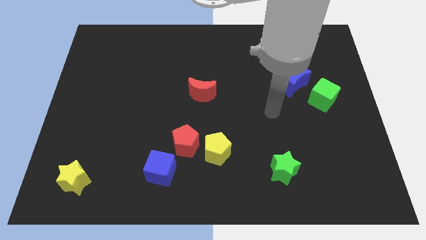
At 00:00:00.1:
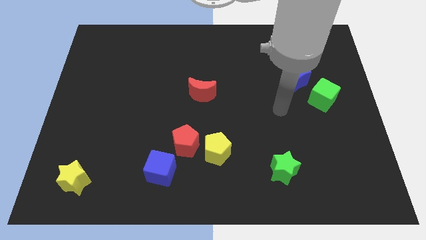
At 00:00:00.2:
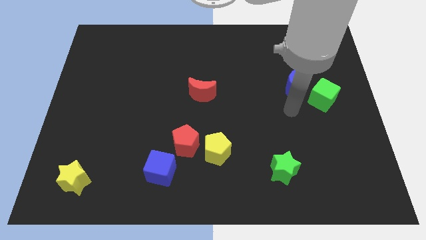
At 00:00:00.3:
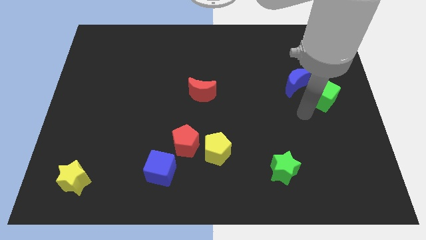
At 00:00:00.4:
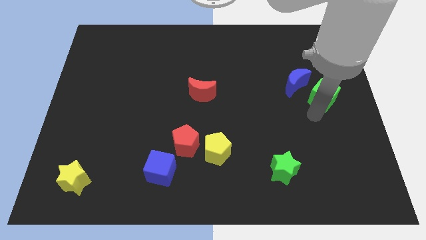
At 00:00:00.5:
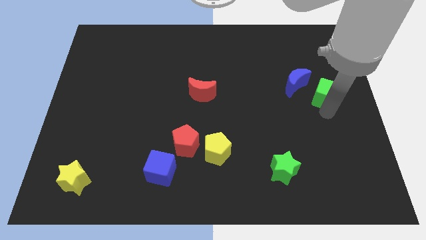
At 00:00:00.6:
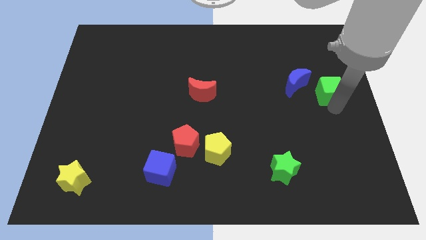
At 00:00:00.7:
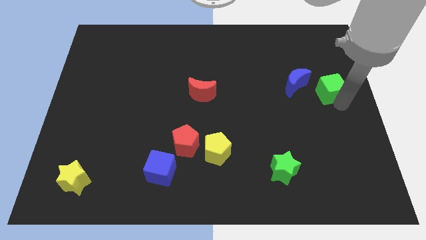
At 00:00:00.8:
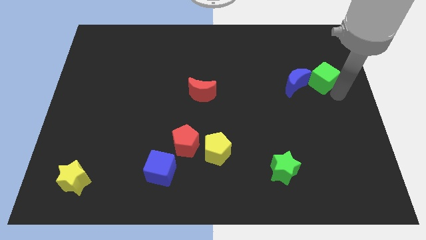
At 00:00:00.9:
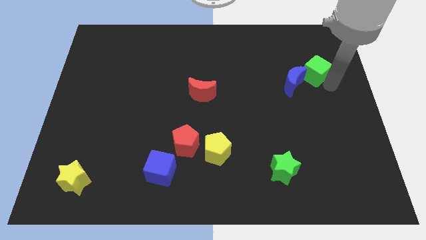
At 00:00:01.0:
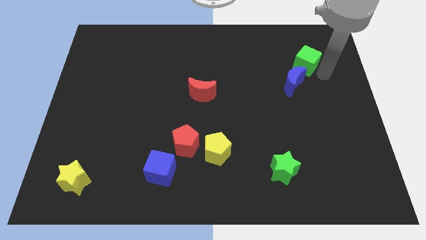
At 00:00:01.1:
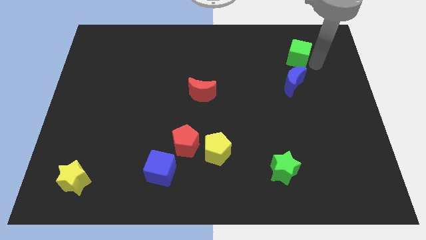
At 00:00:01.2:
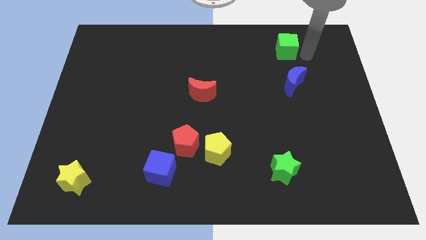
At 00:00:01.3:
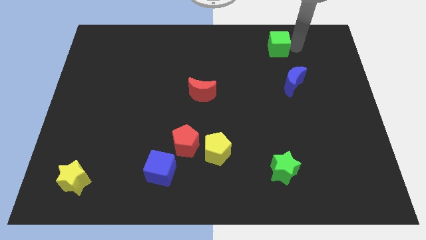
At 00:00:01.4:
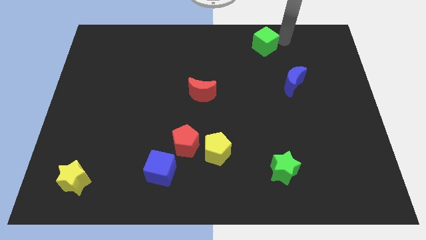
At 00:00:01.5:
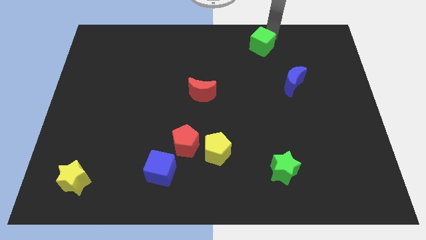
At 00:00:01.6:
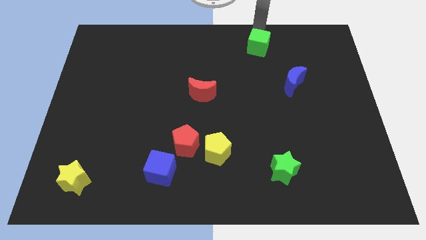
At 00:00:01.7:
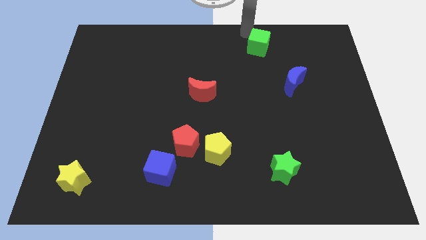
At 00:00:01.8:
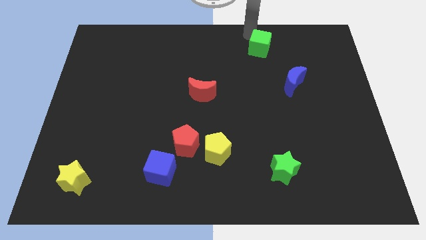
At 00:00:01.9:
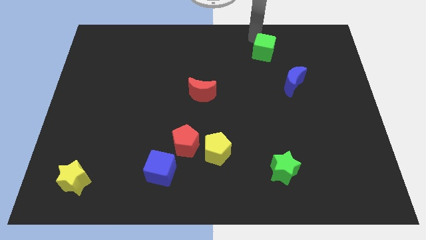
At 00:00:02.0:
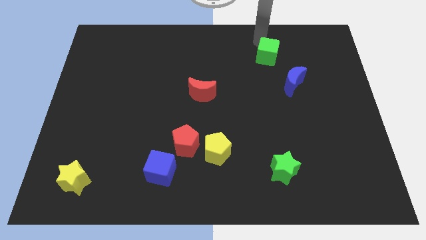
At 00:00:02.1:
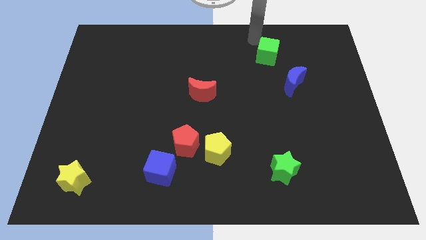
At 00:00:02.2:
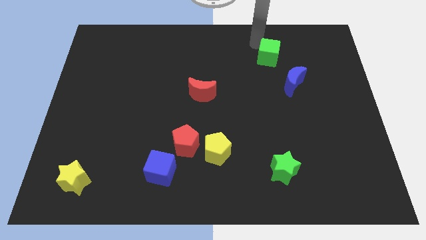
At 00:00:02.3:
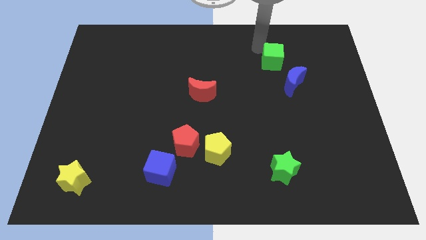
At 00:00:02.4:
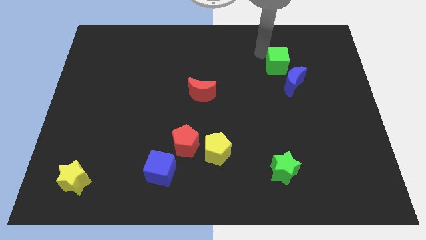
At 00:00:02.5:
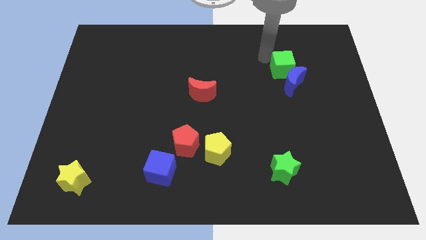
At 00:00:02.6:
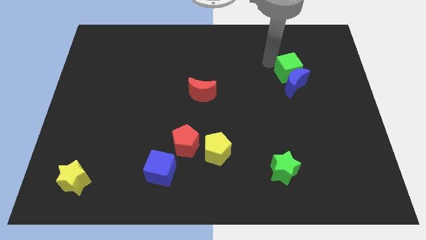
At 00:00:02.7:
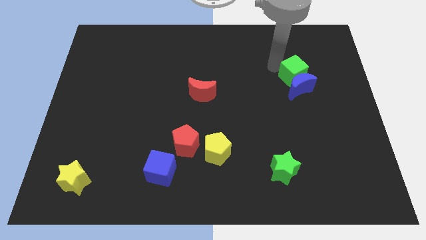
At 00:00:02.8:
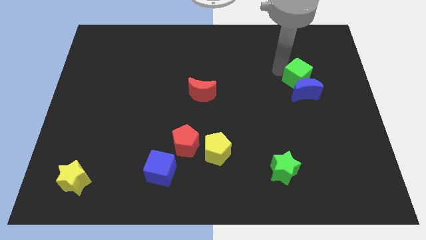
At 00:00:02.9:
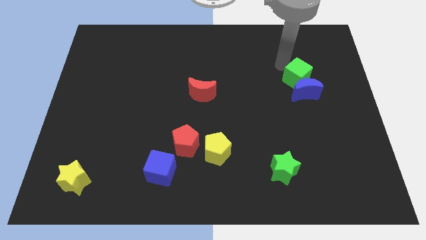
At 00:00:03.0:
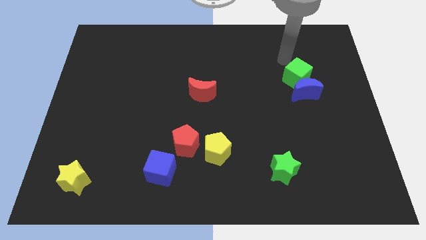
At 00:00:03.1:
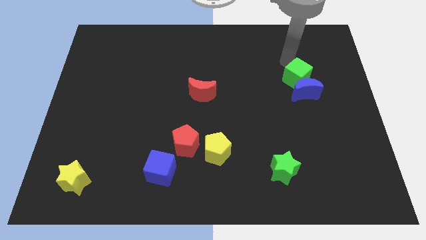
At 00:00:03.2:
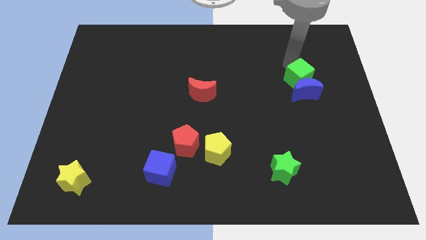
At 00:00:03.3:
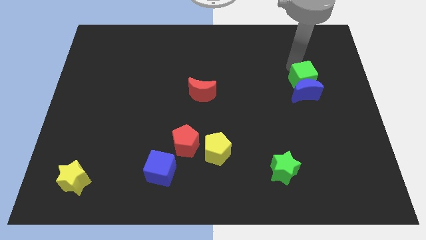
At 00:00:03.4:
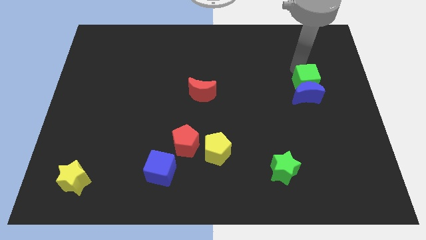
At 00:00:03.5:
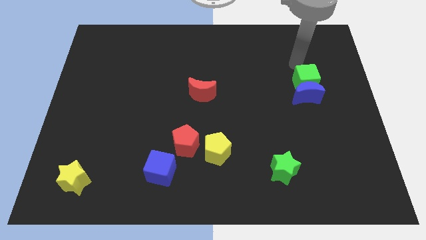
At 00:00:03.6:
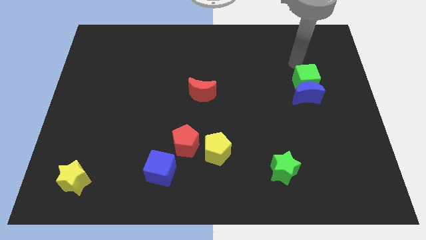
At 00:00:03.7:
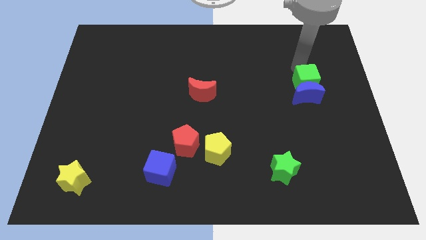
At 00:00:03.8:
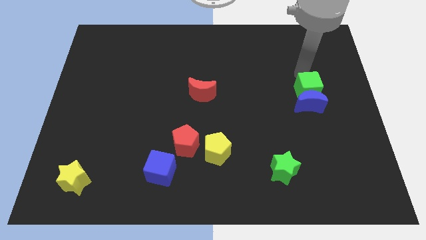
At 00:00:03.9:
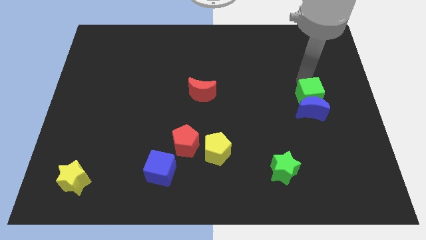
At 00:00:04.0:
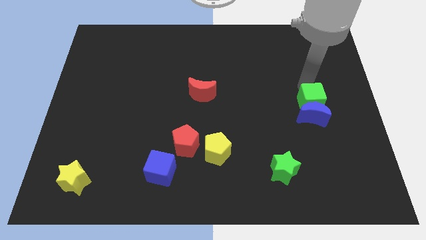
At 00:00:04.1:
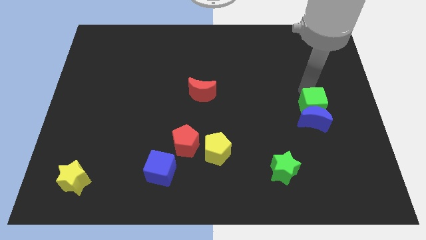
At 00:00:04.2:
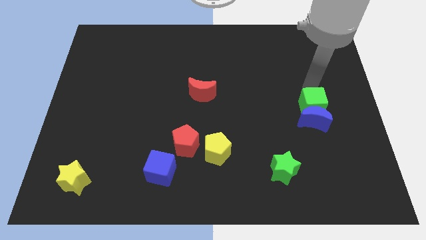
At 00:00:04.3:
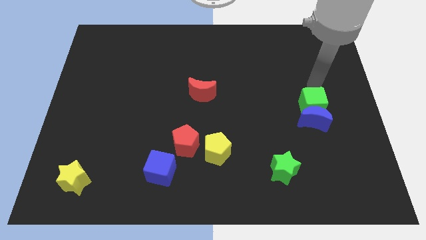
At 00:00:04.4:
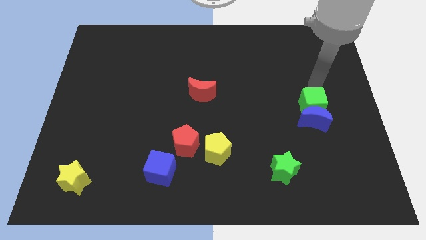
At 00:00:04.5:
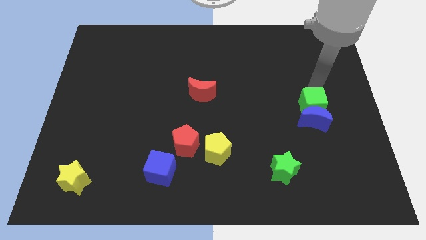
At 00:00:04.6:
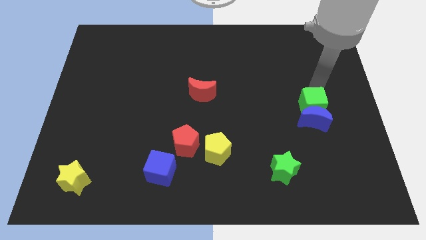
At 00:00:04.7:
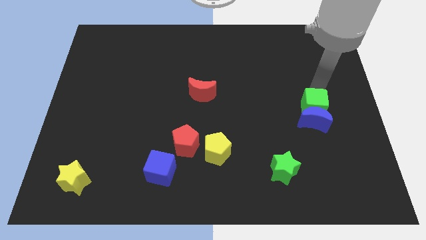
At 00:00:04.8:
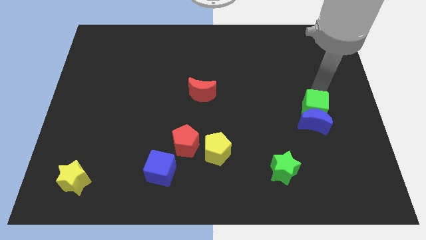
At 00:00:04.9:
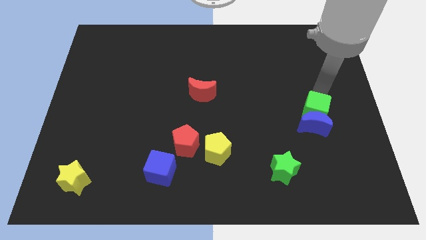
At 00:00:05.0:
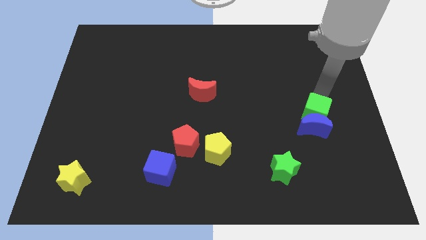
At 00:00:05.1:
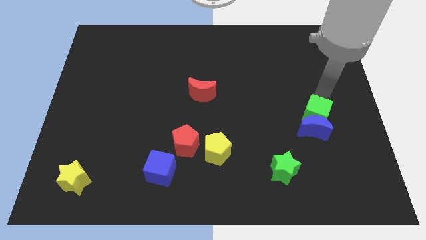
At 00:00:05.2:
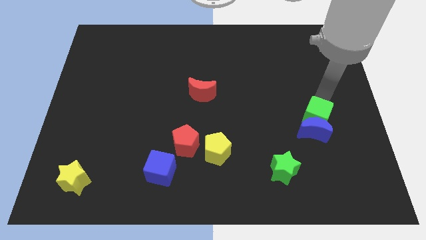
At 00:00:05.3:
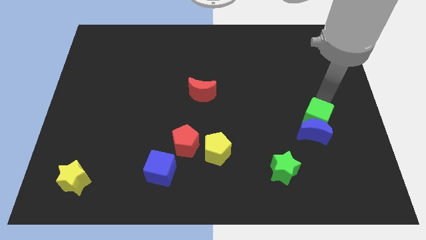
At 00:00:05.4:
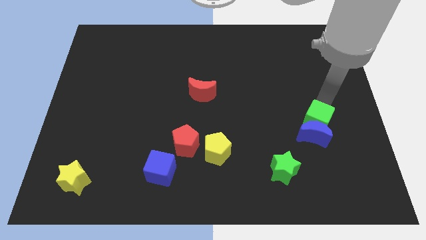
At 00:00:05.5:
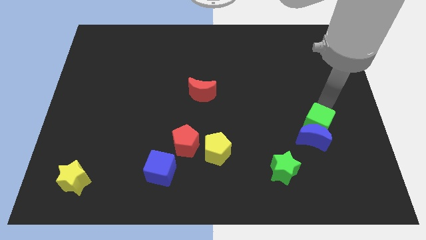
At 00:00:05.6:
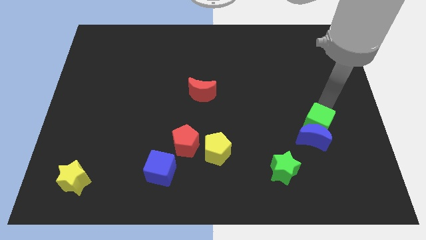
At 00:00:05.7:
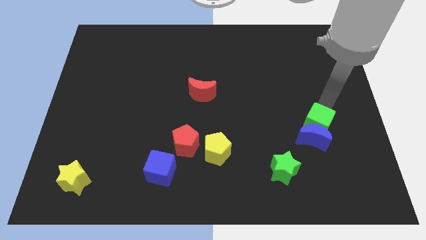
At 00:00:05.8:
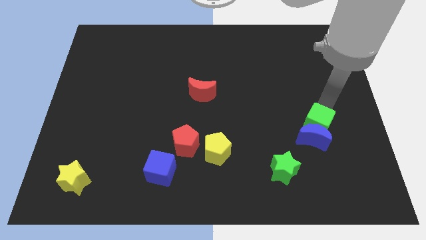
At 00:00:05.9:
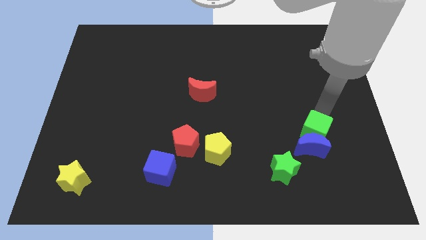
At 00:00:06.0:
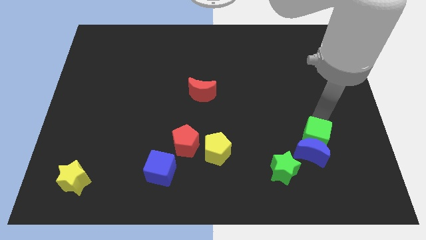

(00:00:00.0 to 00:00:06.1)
move the green cube to the top right side of the green star

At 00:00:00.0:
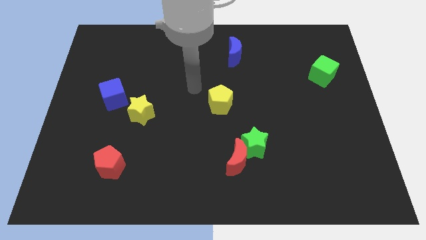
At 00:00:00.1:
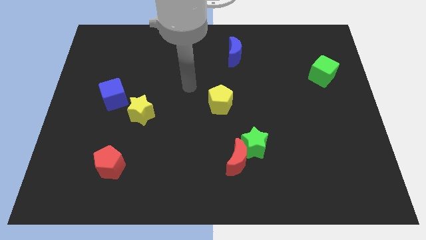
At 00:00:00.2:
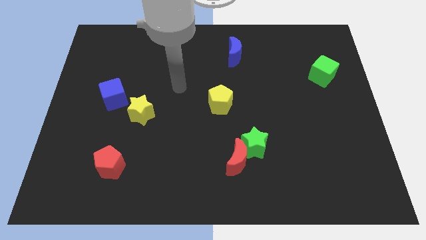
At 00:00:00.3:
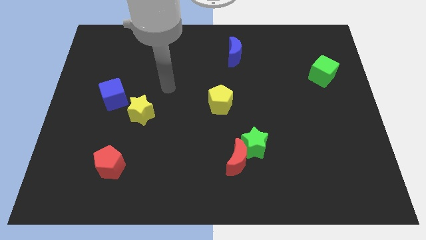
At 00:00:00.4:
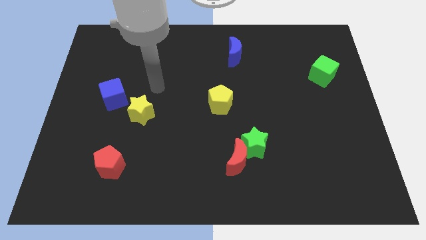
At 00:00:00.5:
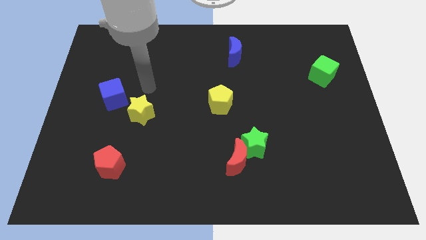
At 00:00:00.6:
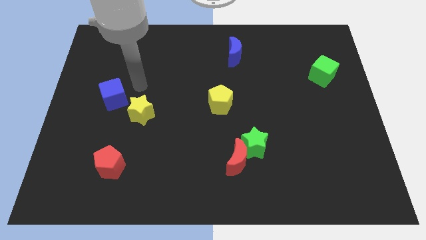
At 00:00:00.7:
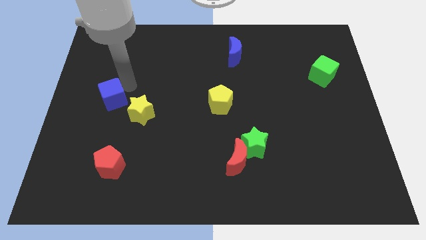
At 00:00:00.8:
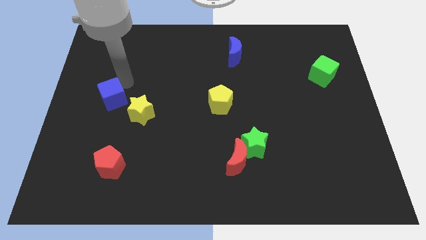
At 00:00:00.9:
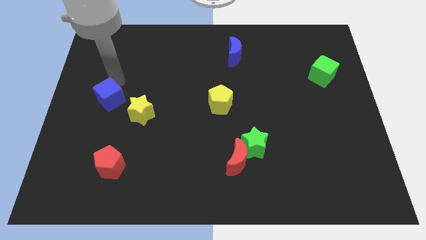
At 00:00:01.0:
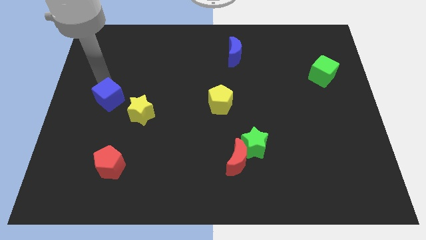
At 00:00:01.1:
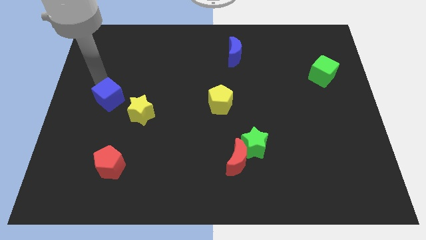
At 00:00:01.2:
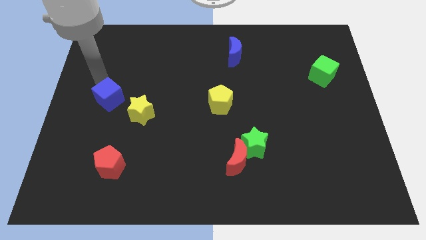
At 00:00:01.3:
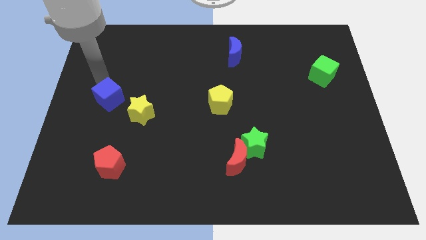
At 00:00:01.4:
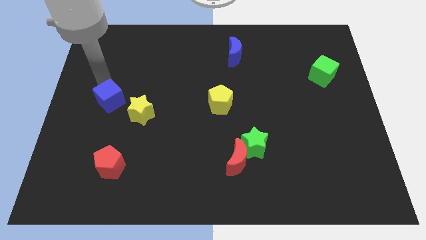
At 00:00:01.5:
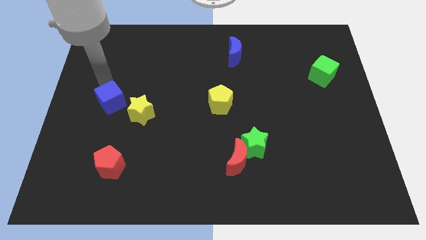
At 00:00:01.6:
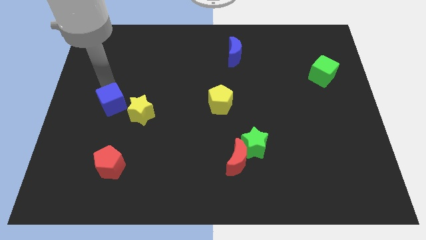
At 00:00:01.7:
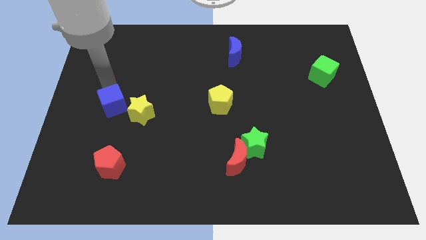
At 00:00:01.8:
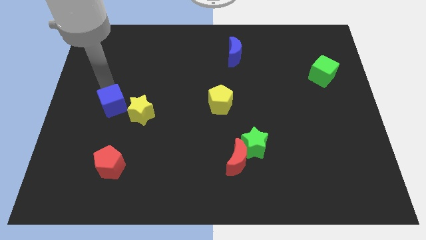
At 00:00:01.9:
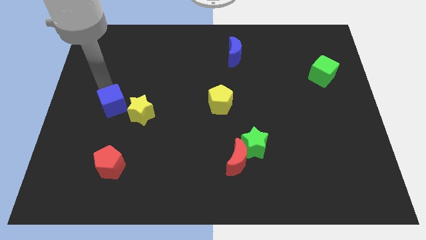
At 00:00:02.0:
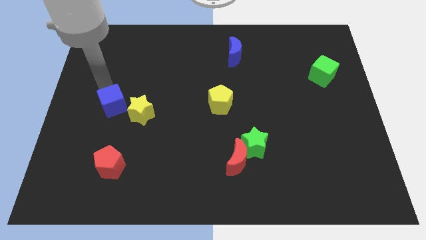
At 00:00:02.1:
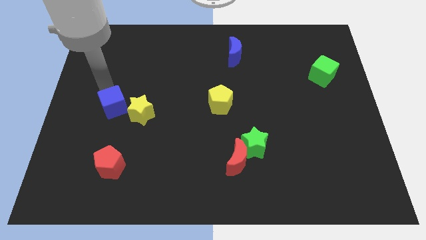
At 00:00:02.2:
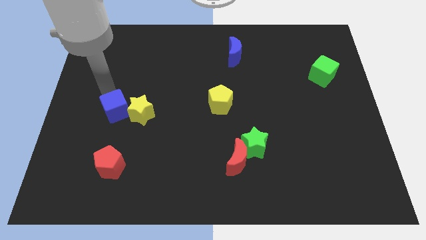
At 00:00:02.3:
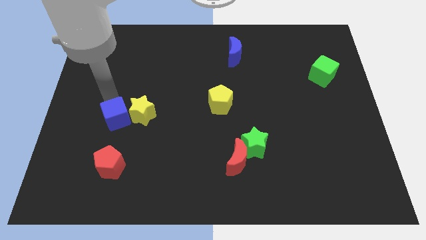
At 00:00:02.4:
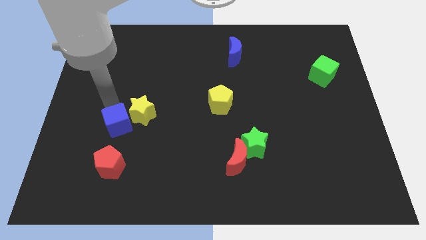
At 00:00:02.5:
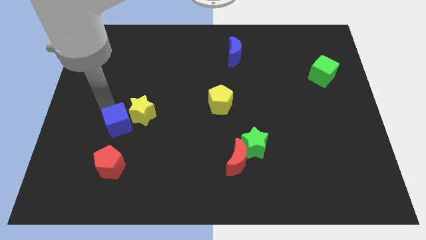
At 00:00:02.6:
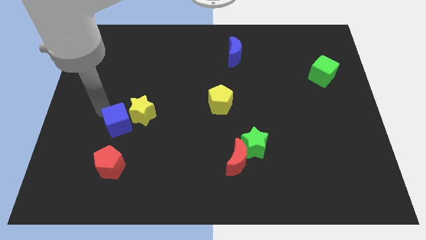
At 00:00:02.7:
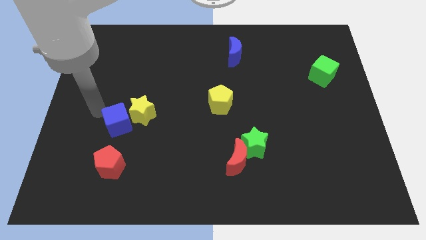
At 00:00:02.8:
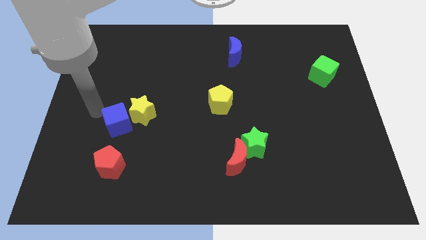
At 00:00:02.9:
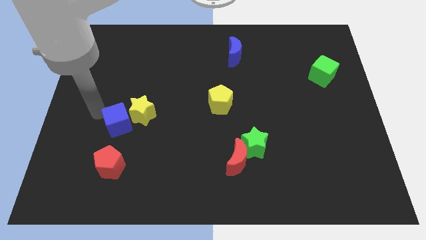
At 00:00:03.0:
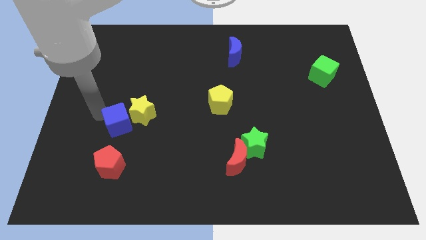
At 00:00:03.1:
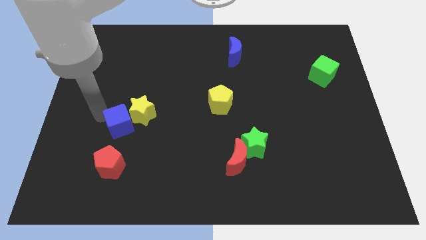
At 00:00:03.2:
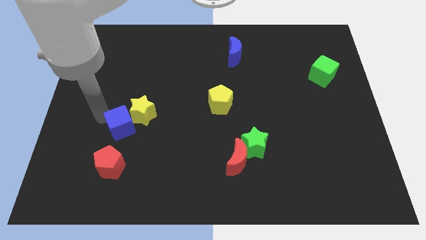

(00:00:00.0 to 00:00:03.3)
slide the blue cube to the bottom of the yellow star
